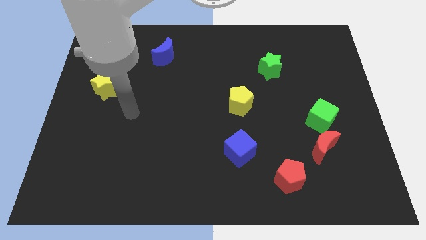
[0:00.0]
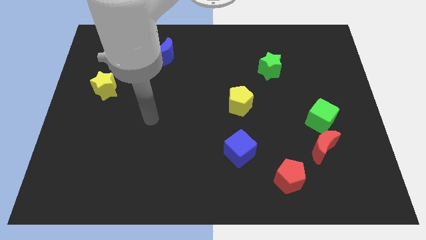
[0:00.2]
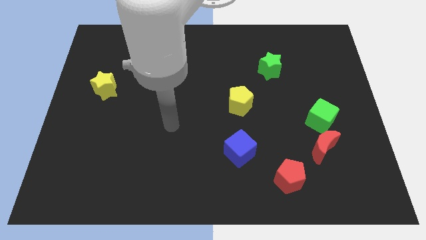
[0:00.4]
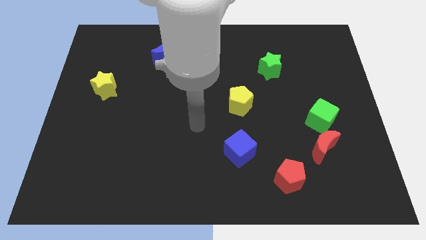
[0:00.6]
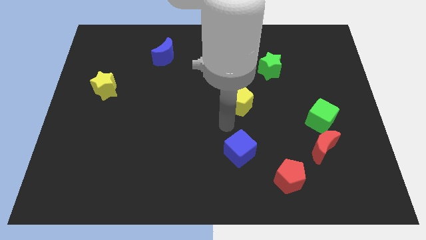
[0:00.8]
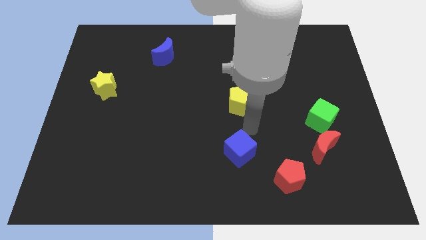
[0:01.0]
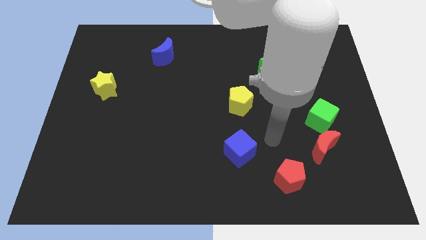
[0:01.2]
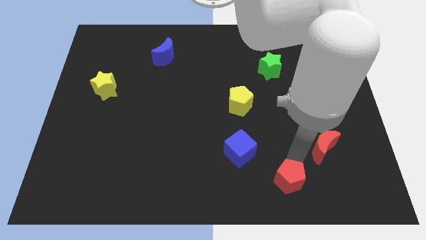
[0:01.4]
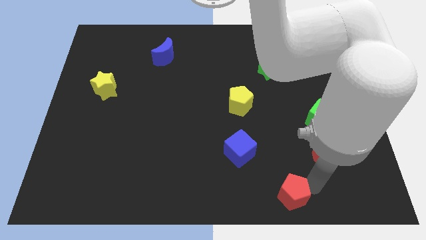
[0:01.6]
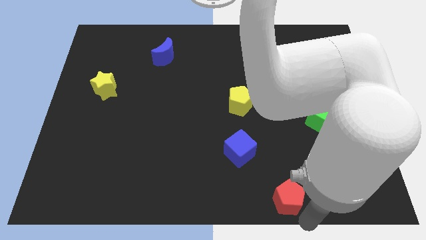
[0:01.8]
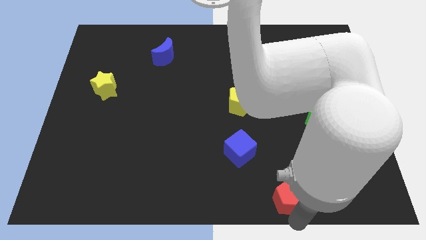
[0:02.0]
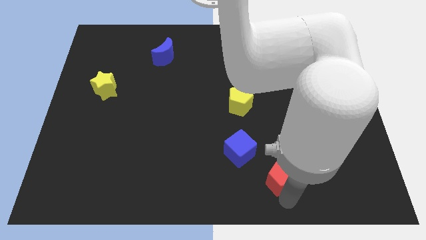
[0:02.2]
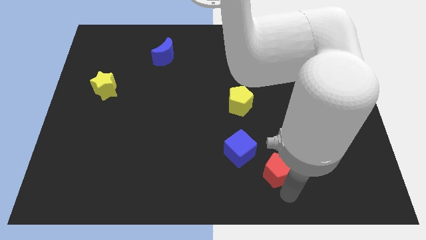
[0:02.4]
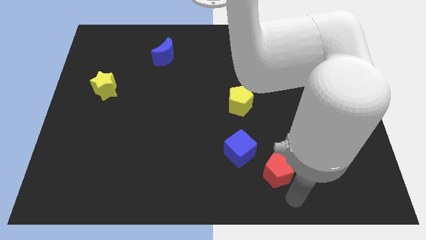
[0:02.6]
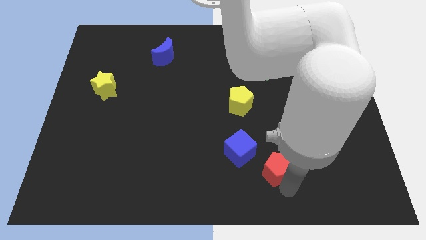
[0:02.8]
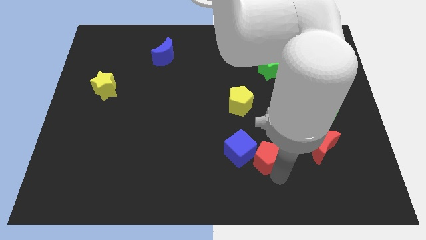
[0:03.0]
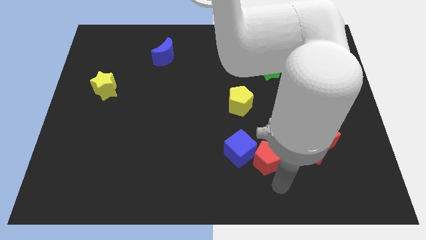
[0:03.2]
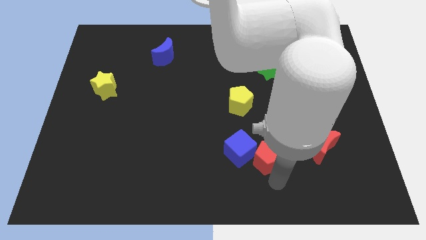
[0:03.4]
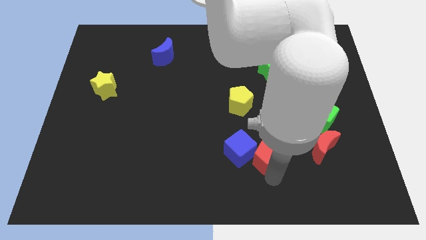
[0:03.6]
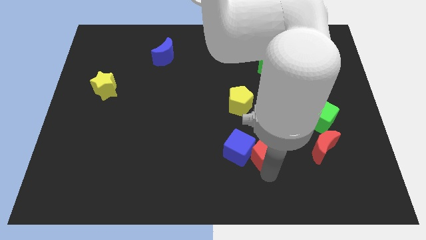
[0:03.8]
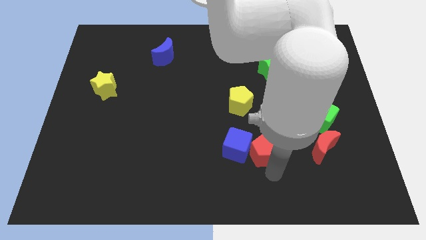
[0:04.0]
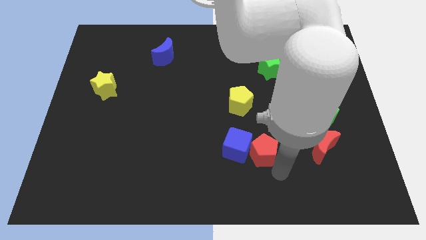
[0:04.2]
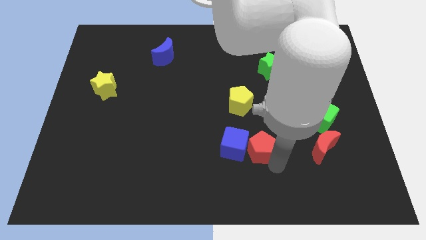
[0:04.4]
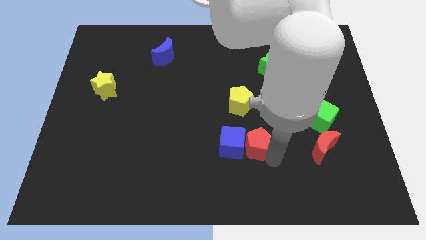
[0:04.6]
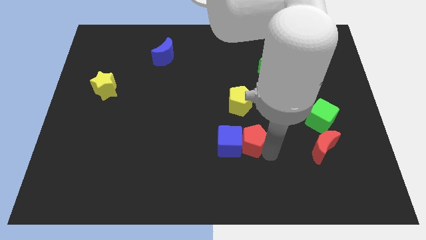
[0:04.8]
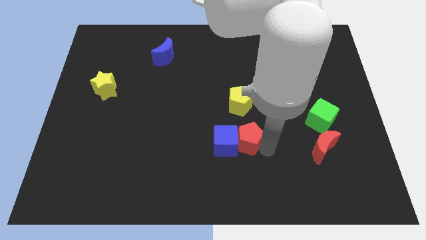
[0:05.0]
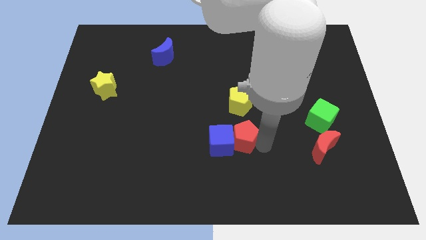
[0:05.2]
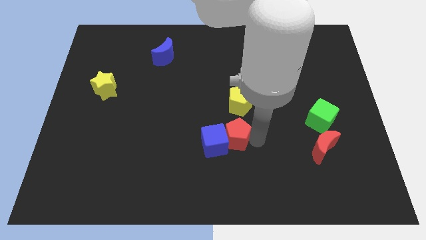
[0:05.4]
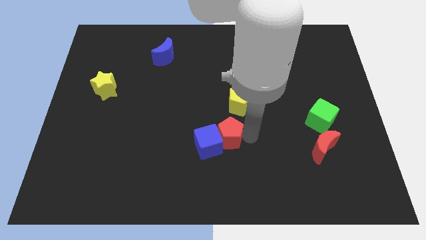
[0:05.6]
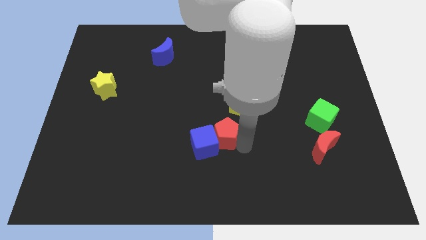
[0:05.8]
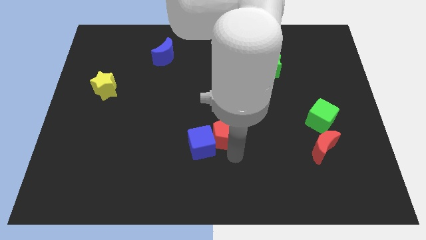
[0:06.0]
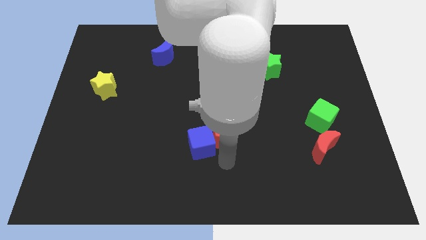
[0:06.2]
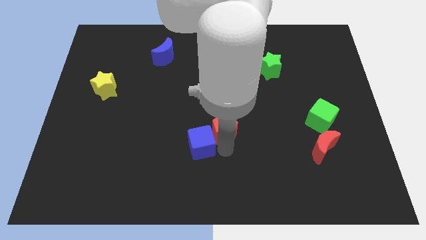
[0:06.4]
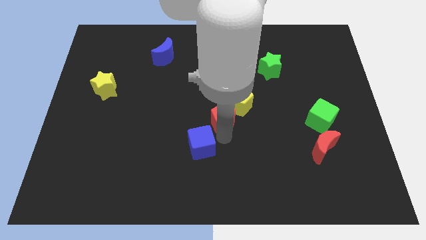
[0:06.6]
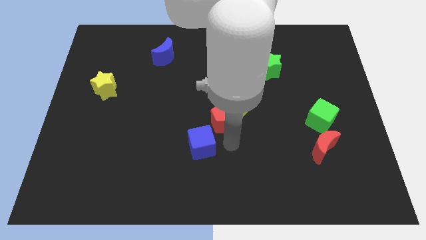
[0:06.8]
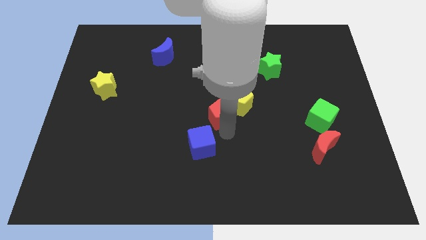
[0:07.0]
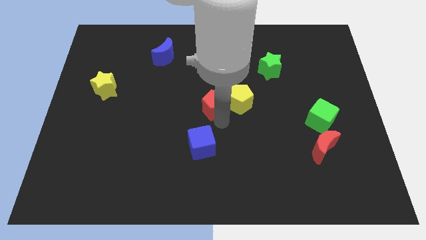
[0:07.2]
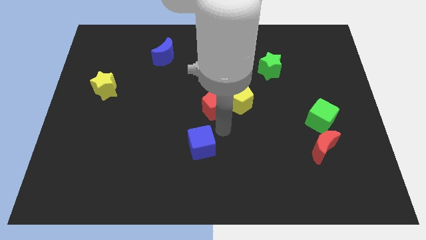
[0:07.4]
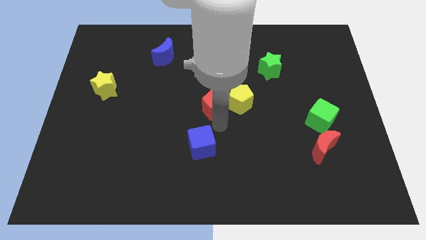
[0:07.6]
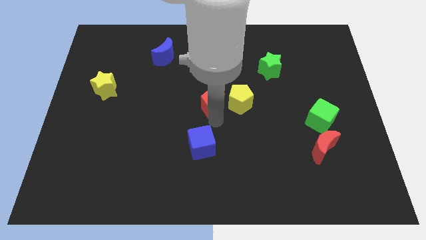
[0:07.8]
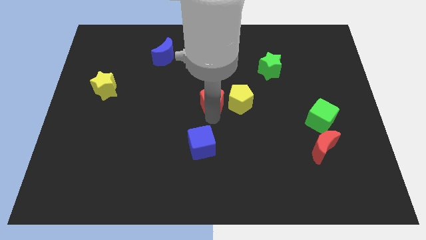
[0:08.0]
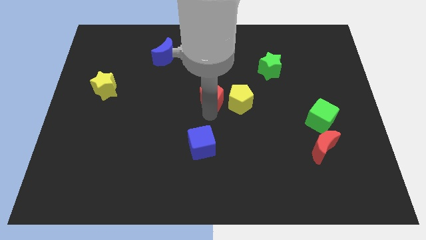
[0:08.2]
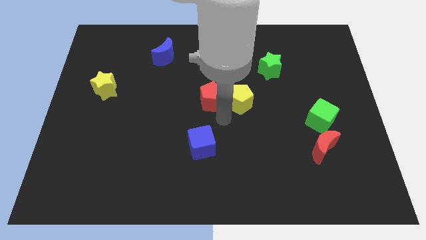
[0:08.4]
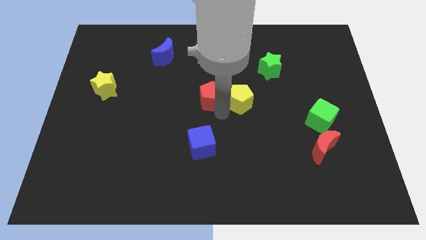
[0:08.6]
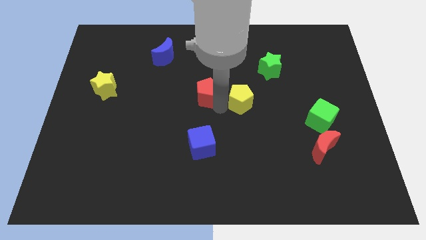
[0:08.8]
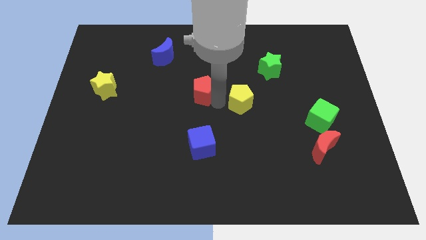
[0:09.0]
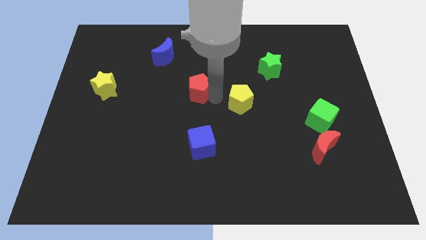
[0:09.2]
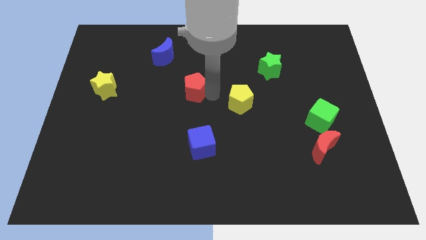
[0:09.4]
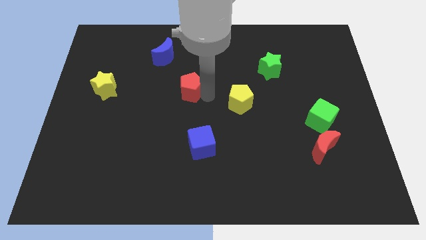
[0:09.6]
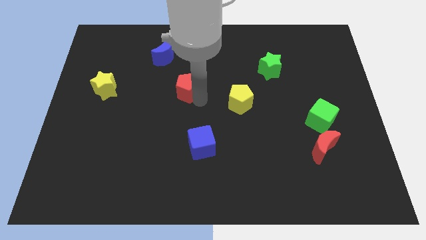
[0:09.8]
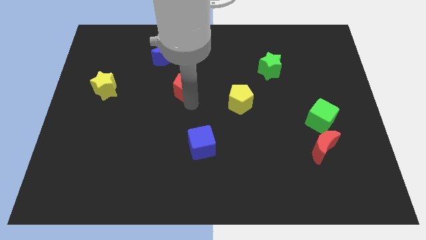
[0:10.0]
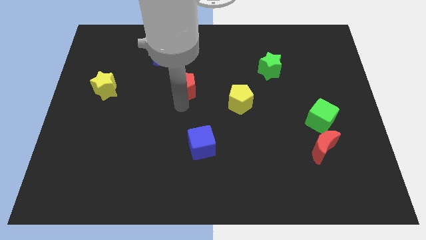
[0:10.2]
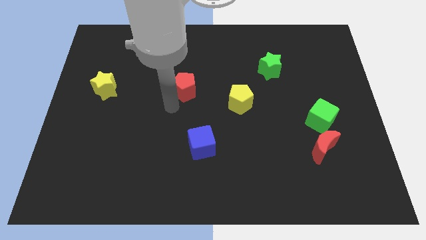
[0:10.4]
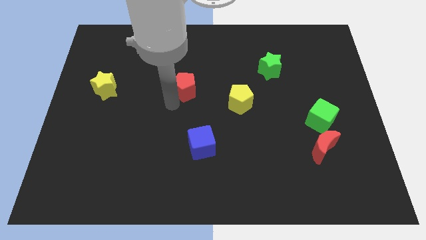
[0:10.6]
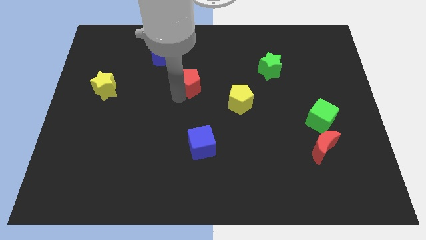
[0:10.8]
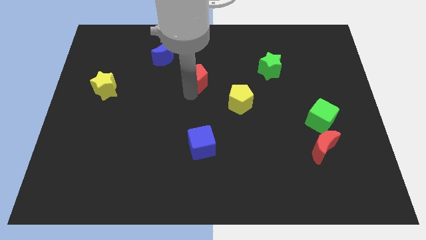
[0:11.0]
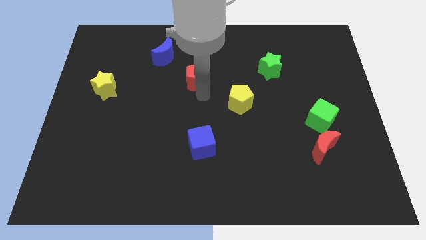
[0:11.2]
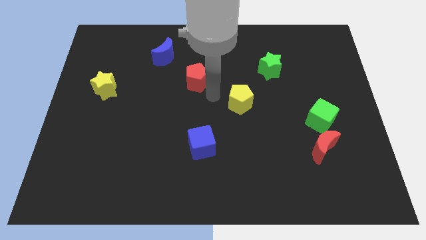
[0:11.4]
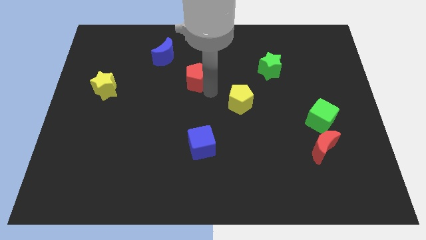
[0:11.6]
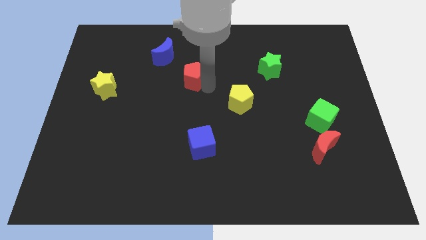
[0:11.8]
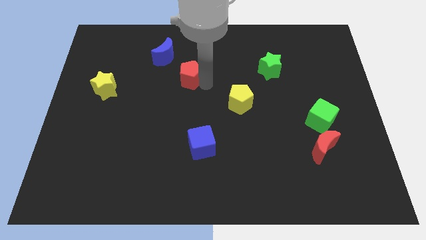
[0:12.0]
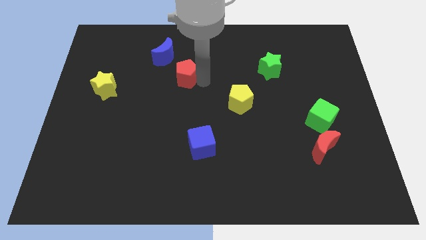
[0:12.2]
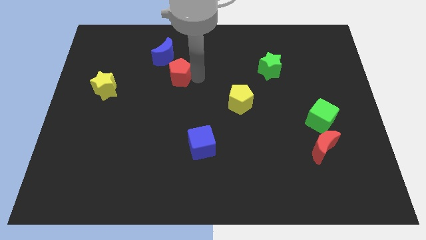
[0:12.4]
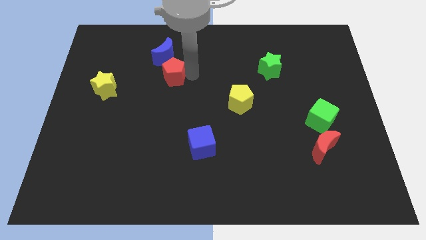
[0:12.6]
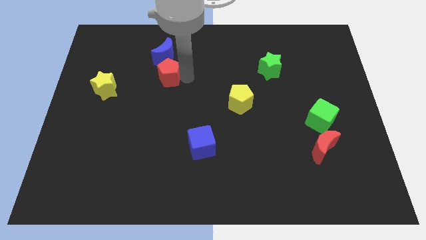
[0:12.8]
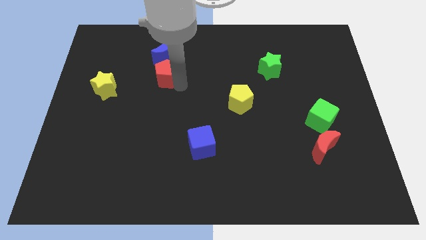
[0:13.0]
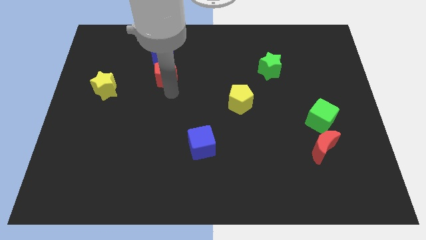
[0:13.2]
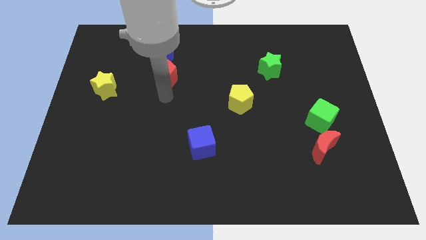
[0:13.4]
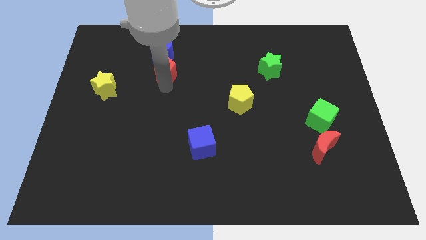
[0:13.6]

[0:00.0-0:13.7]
push the red pentagon to the blue moon

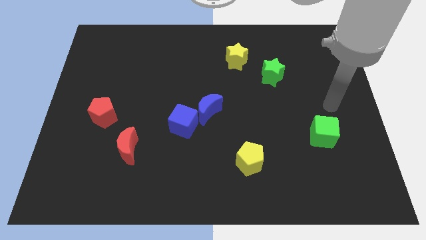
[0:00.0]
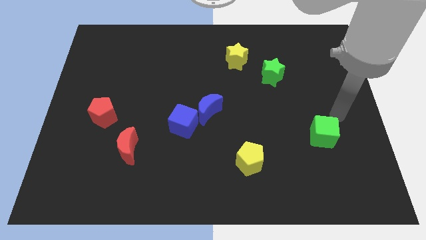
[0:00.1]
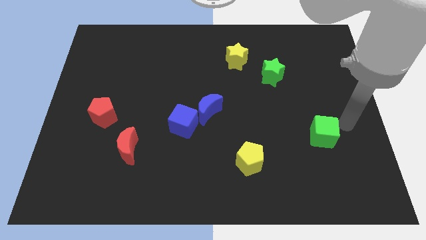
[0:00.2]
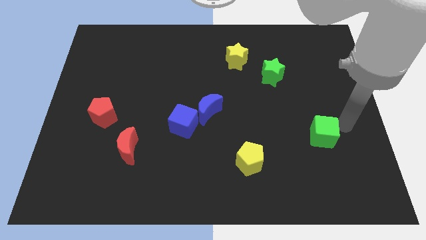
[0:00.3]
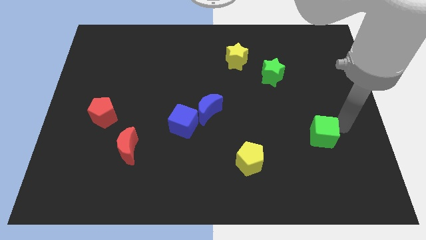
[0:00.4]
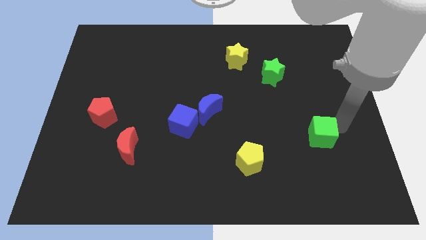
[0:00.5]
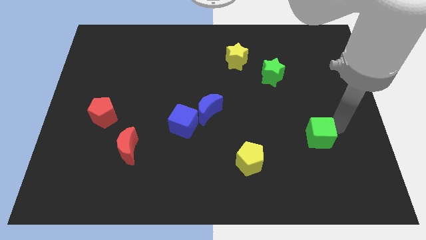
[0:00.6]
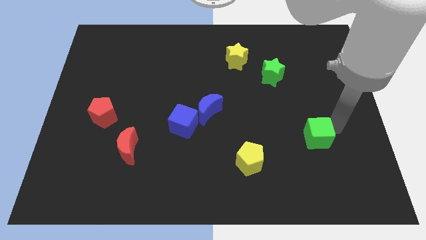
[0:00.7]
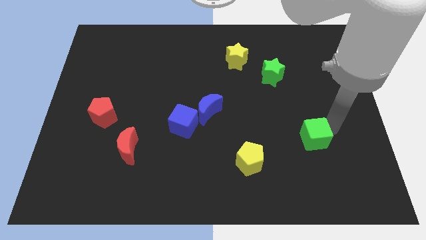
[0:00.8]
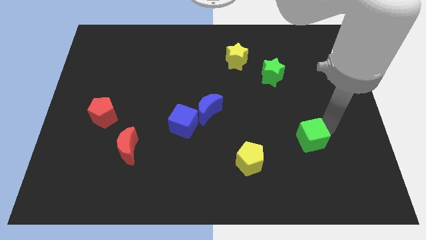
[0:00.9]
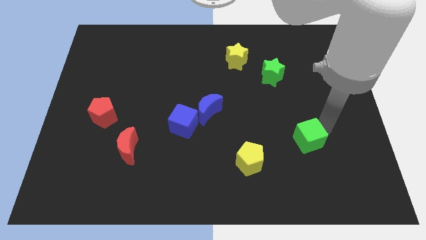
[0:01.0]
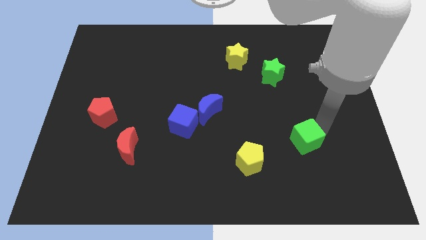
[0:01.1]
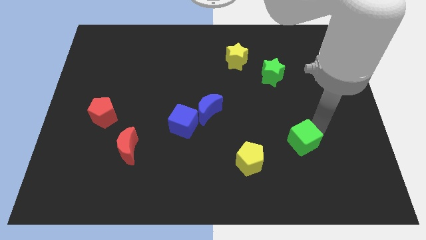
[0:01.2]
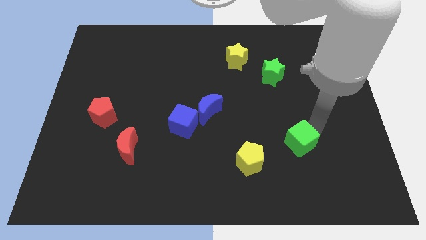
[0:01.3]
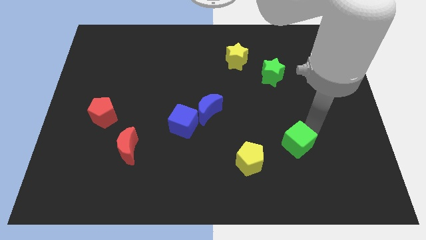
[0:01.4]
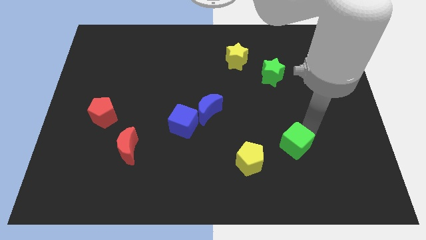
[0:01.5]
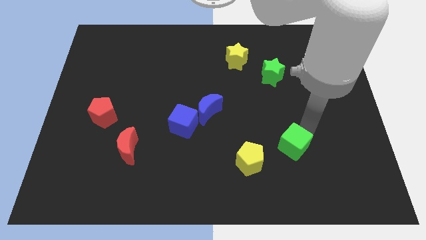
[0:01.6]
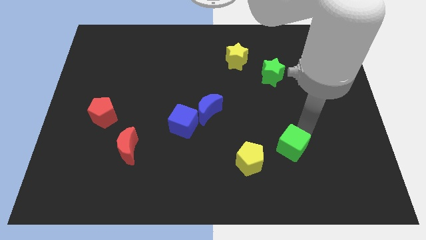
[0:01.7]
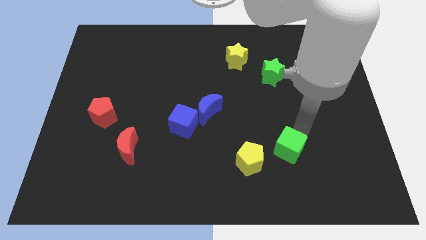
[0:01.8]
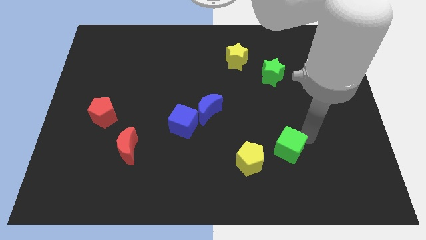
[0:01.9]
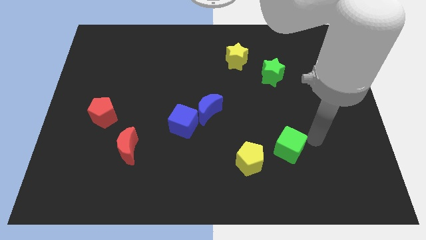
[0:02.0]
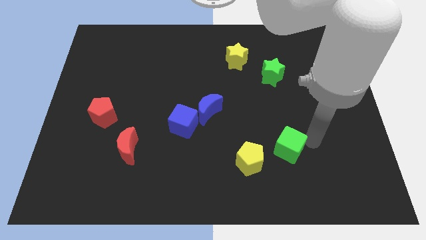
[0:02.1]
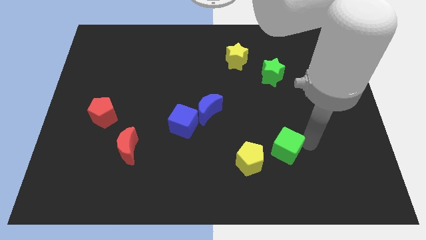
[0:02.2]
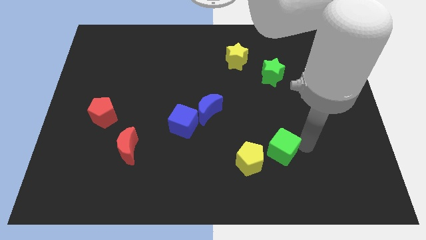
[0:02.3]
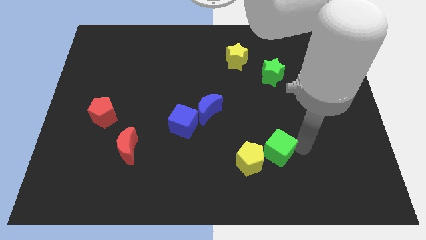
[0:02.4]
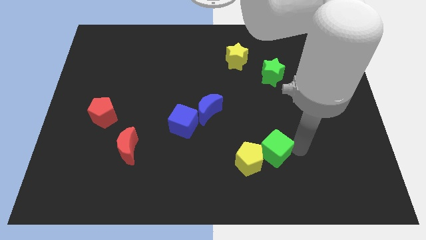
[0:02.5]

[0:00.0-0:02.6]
put the green cube to the yellow pentagon
